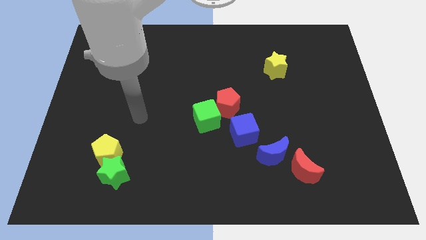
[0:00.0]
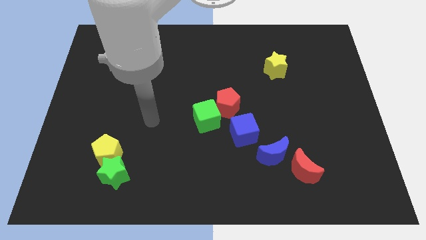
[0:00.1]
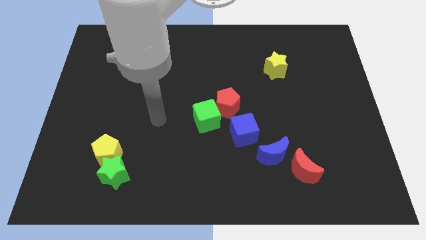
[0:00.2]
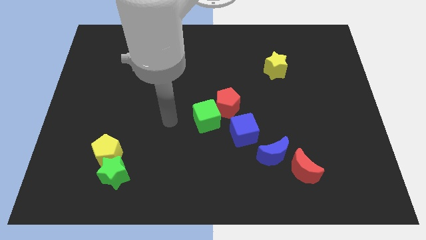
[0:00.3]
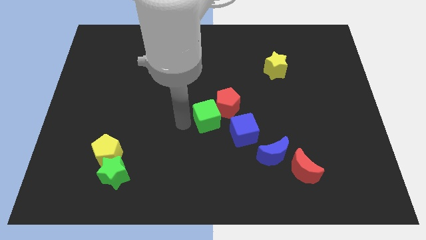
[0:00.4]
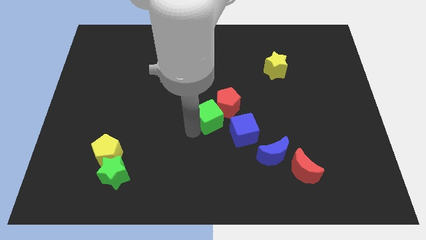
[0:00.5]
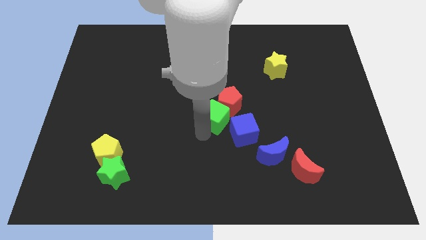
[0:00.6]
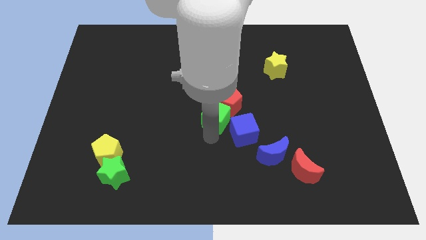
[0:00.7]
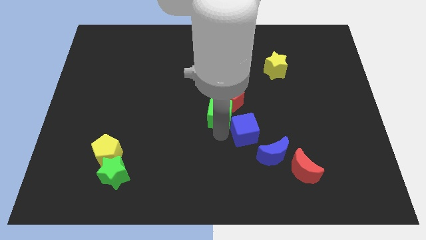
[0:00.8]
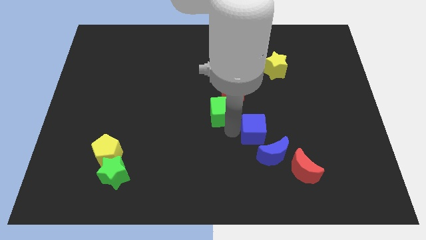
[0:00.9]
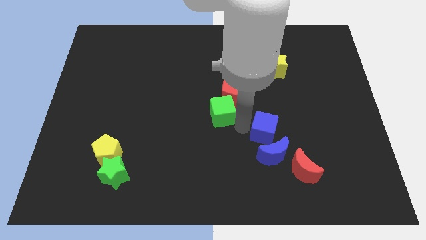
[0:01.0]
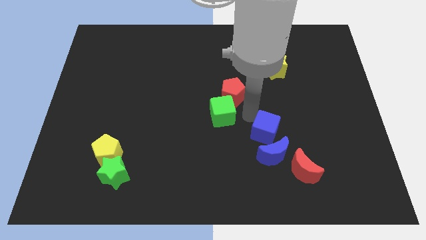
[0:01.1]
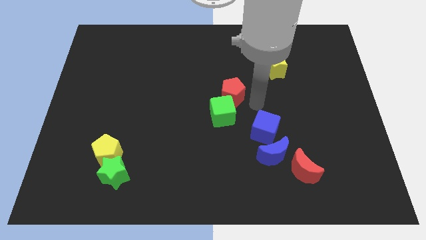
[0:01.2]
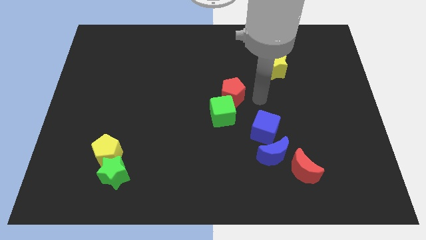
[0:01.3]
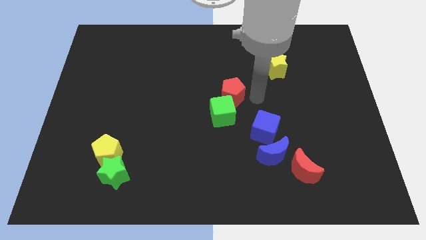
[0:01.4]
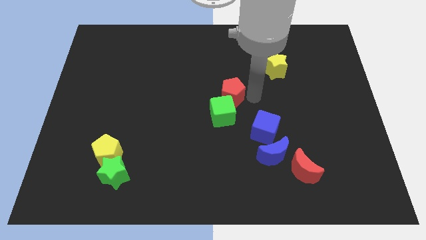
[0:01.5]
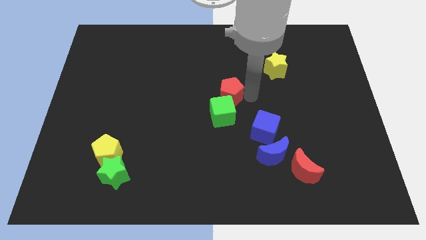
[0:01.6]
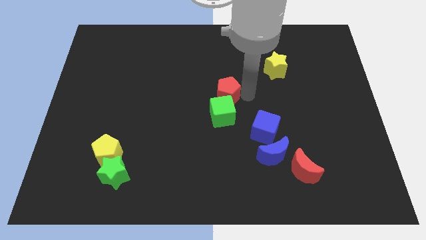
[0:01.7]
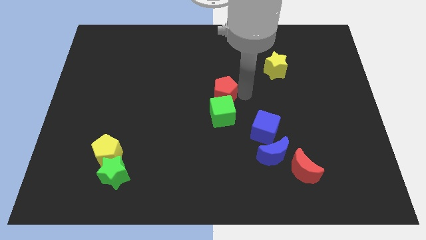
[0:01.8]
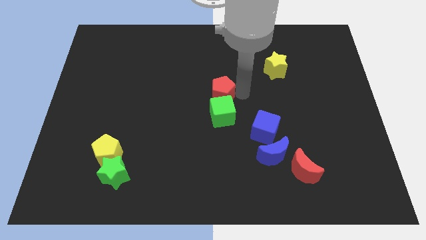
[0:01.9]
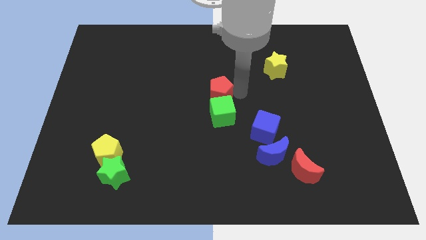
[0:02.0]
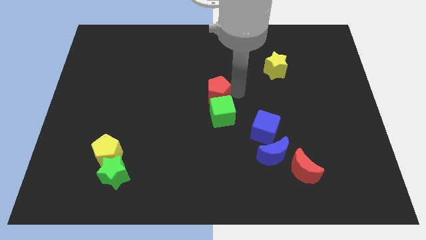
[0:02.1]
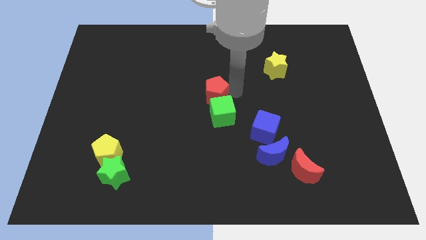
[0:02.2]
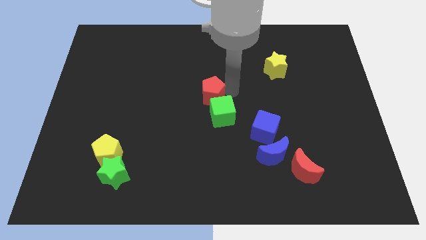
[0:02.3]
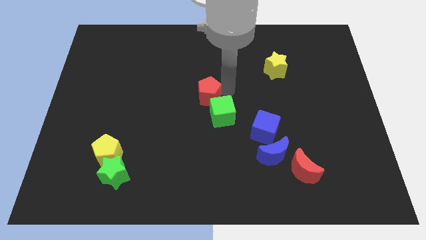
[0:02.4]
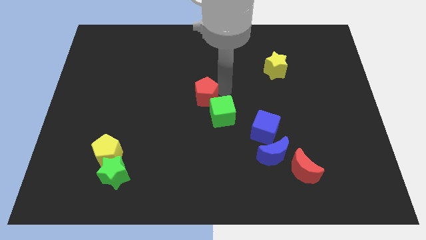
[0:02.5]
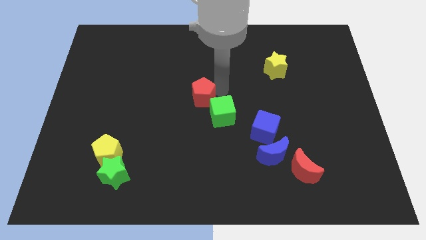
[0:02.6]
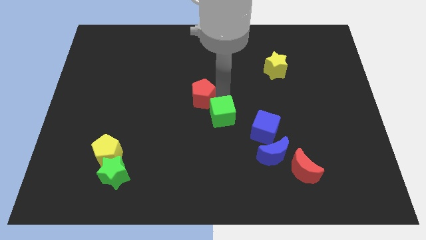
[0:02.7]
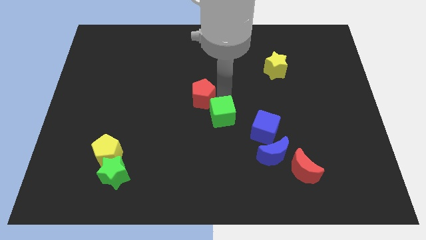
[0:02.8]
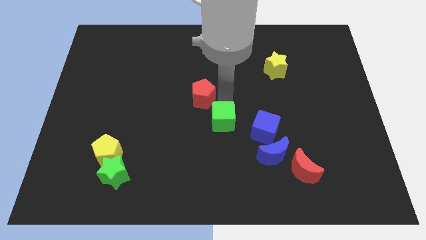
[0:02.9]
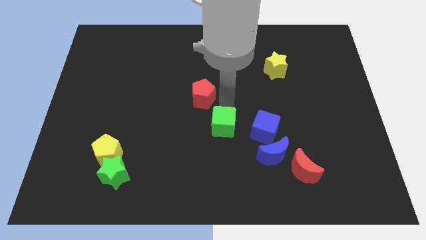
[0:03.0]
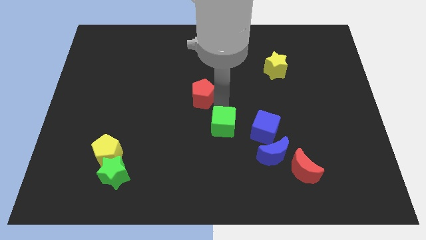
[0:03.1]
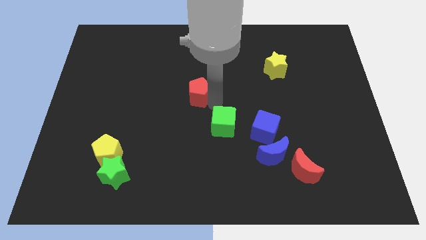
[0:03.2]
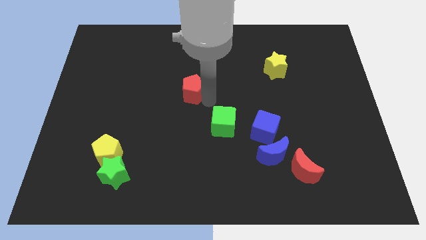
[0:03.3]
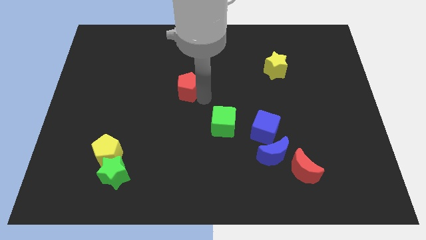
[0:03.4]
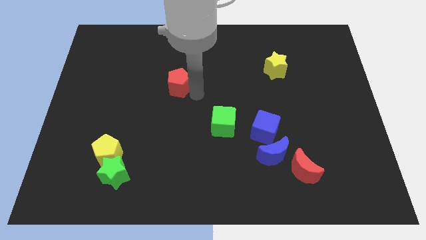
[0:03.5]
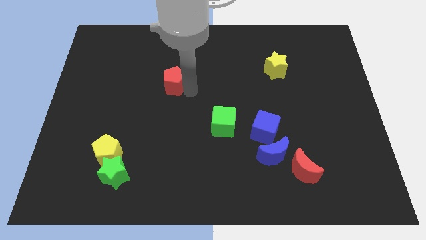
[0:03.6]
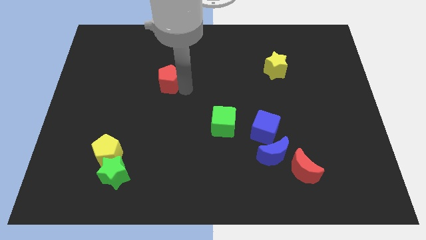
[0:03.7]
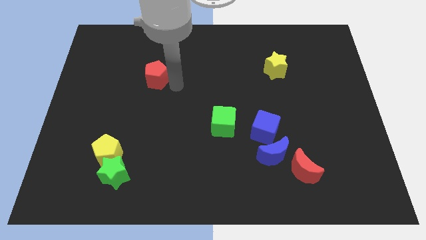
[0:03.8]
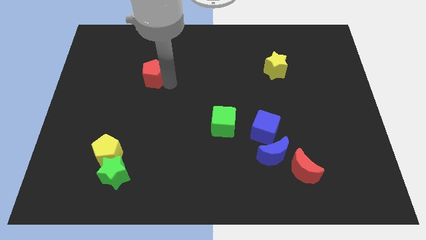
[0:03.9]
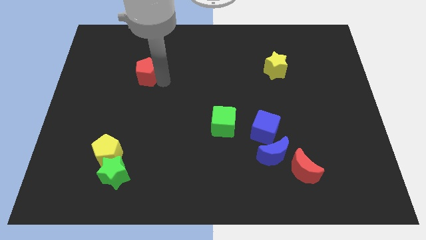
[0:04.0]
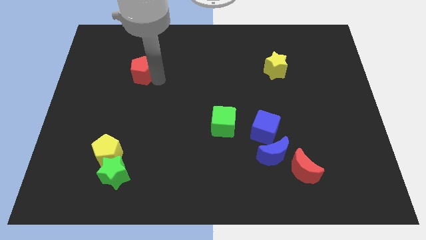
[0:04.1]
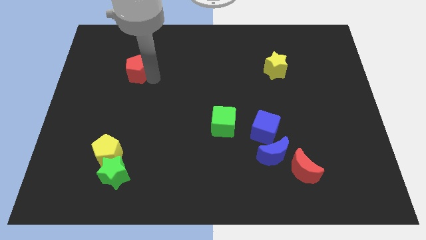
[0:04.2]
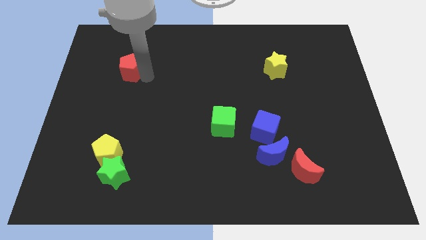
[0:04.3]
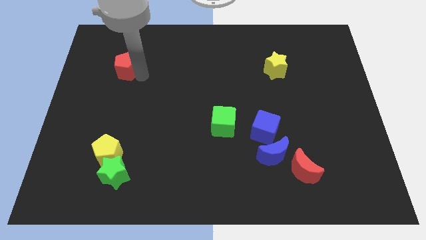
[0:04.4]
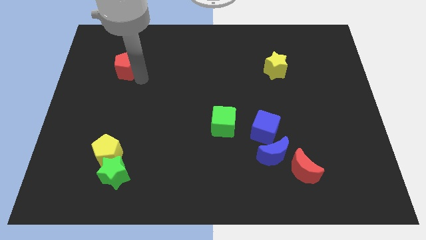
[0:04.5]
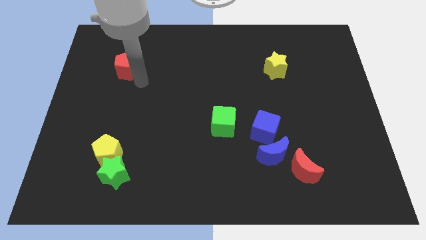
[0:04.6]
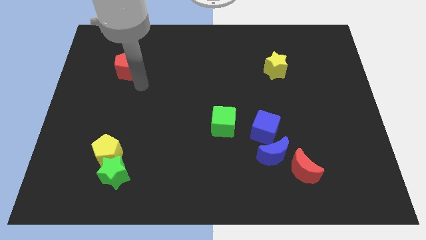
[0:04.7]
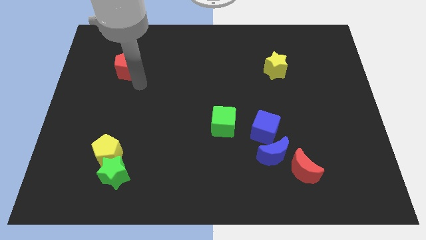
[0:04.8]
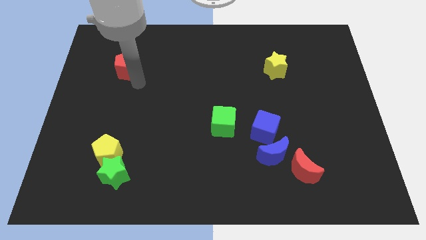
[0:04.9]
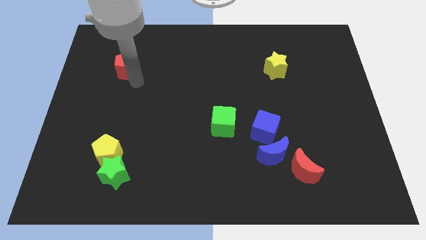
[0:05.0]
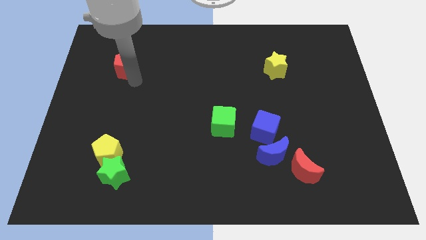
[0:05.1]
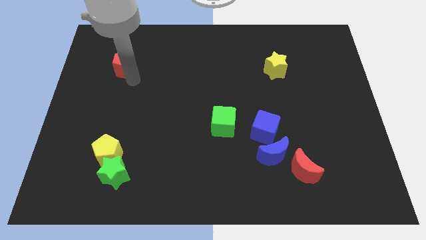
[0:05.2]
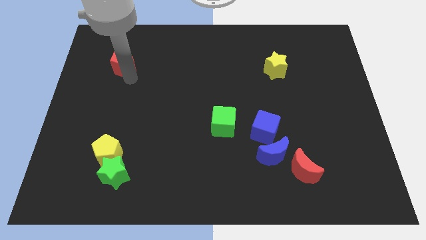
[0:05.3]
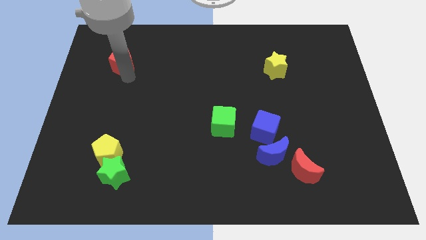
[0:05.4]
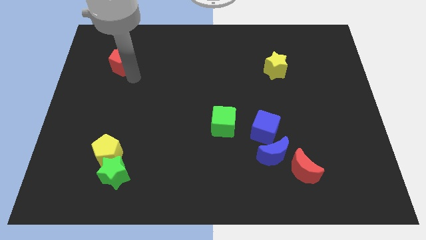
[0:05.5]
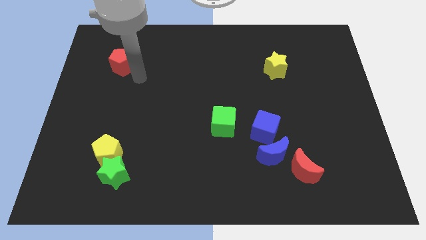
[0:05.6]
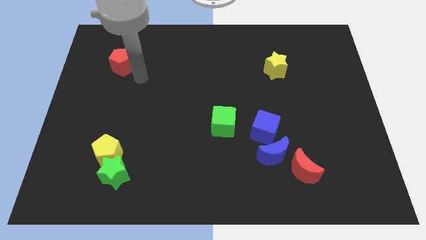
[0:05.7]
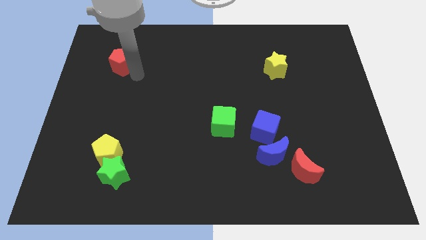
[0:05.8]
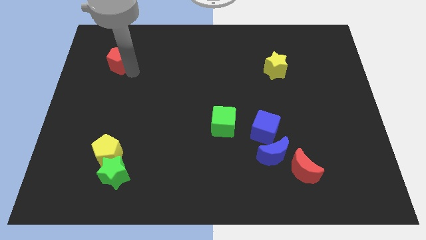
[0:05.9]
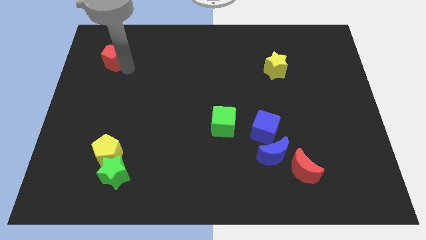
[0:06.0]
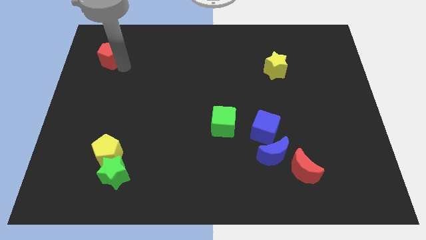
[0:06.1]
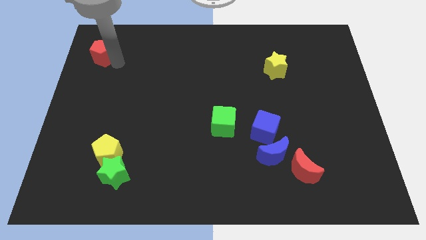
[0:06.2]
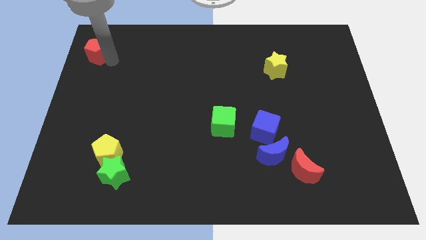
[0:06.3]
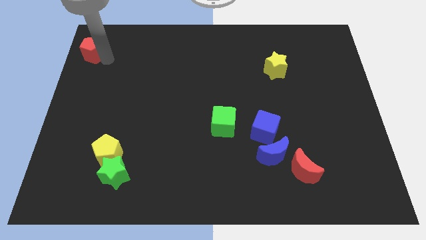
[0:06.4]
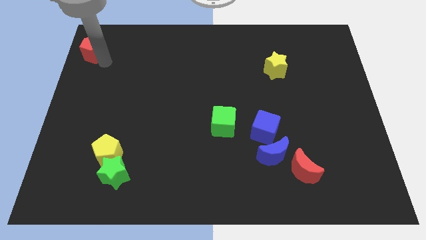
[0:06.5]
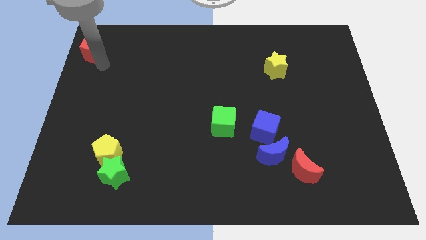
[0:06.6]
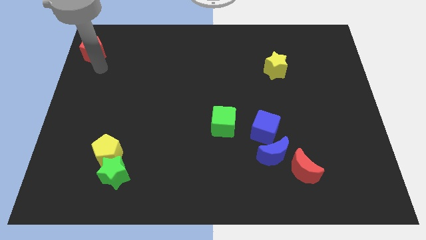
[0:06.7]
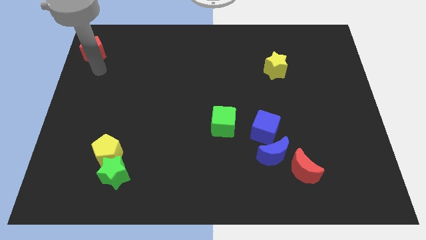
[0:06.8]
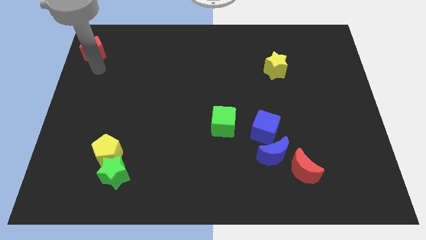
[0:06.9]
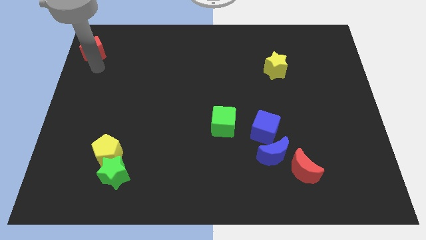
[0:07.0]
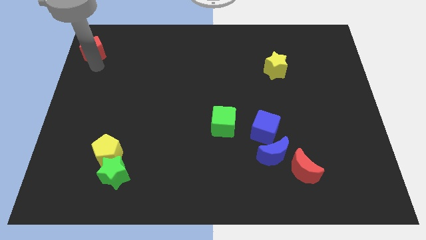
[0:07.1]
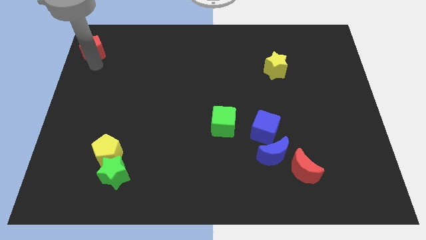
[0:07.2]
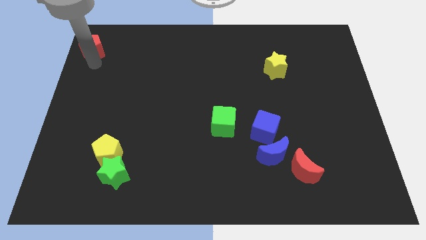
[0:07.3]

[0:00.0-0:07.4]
put the red pentagon to the top left

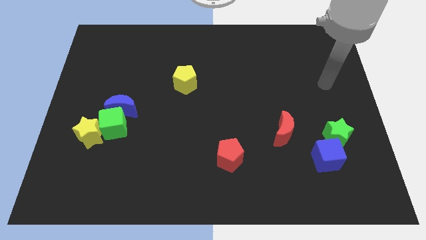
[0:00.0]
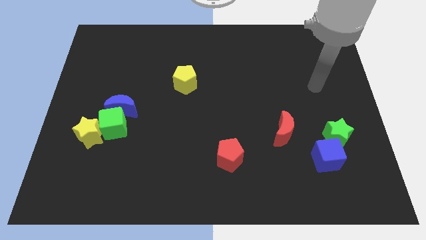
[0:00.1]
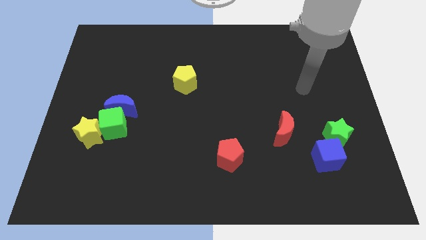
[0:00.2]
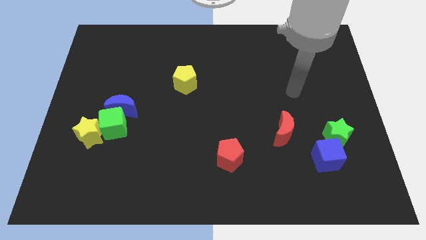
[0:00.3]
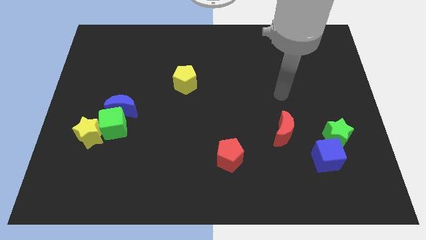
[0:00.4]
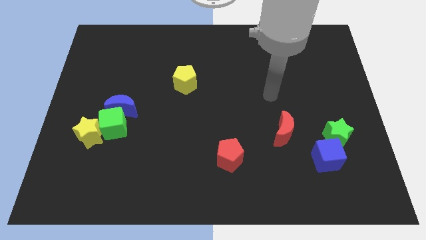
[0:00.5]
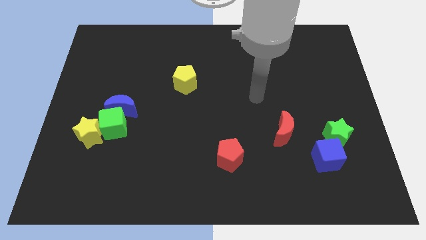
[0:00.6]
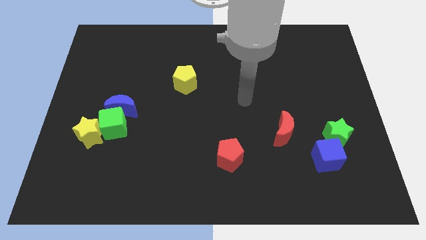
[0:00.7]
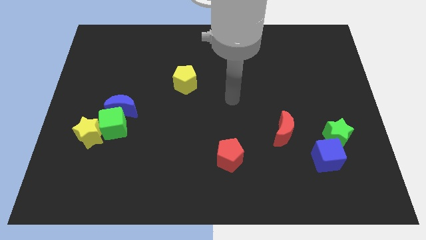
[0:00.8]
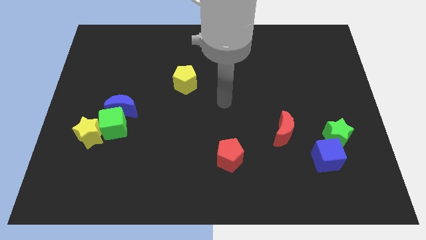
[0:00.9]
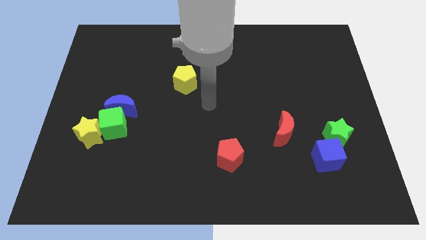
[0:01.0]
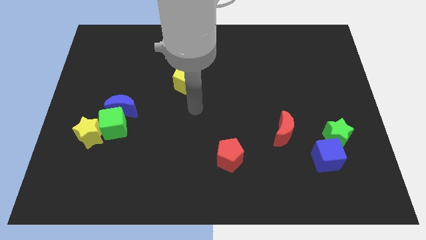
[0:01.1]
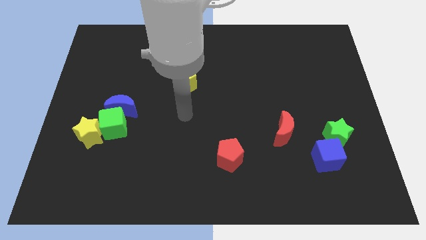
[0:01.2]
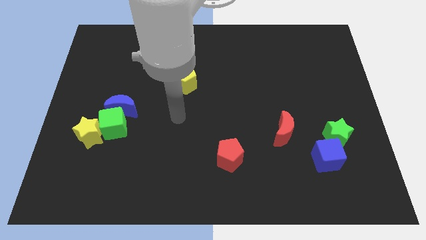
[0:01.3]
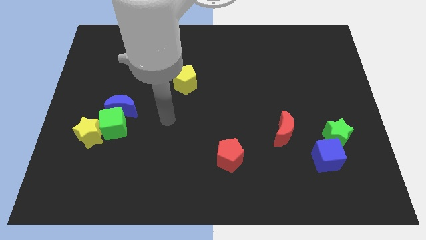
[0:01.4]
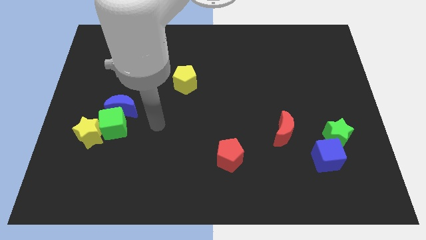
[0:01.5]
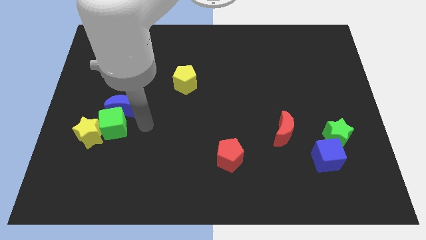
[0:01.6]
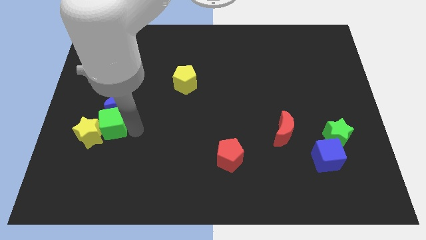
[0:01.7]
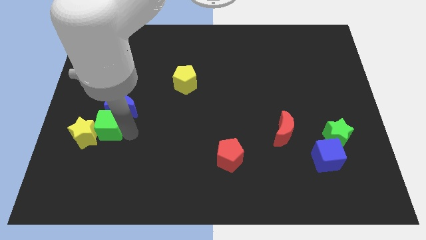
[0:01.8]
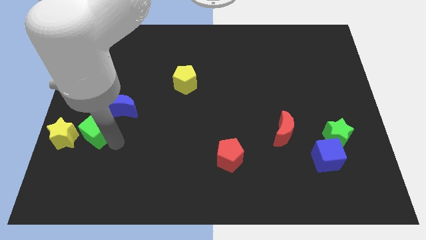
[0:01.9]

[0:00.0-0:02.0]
move the yellow star to the center left
